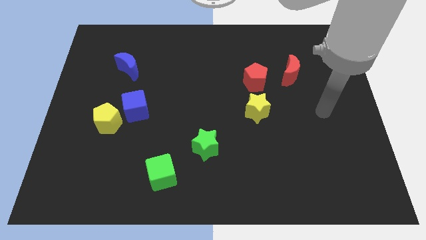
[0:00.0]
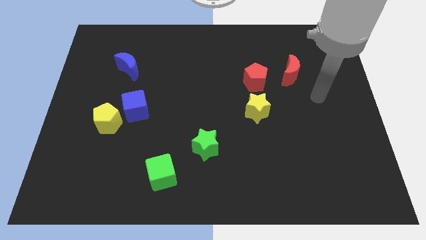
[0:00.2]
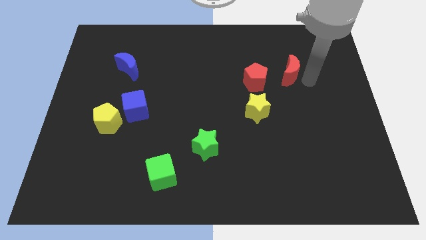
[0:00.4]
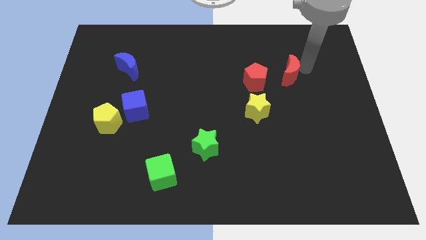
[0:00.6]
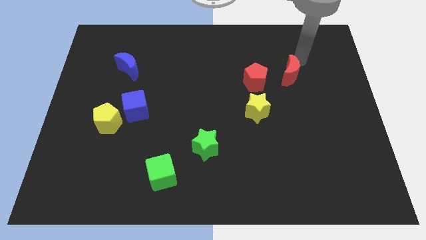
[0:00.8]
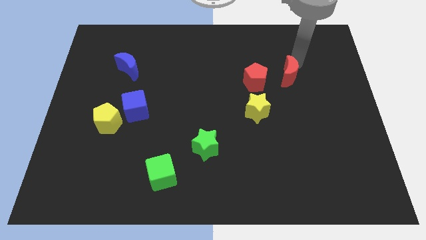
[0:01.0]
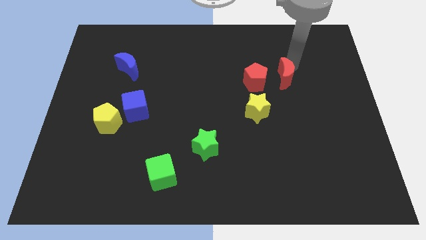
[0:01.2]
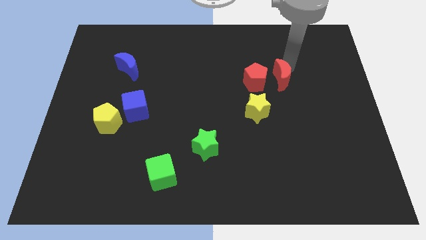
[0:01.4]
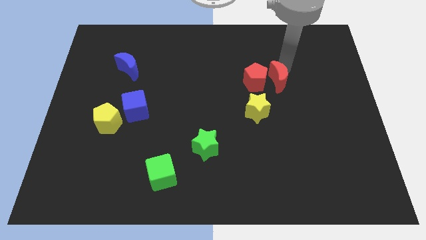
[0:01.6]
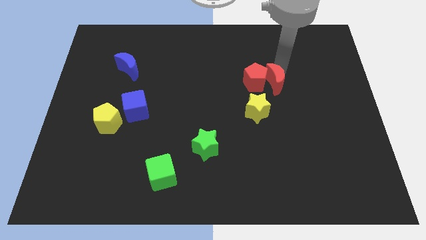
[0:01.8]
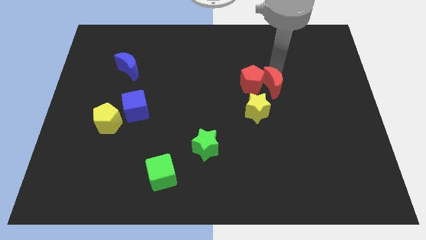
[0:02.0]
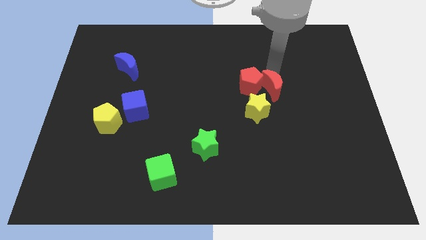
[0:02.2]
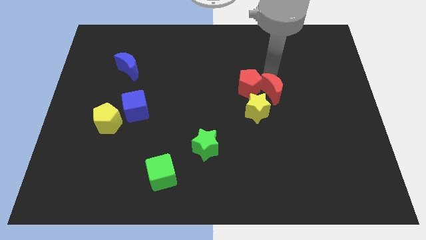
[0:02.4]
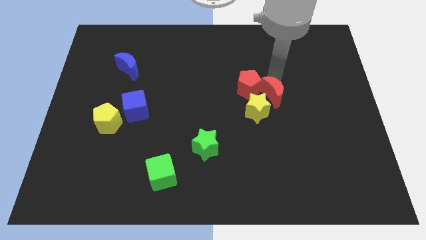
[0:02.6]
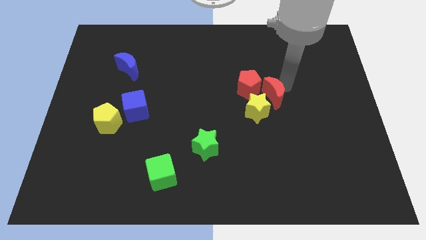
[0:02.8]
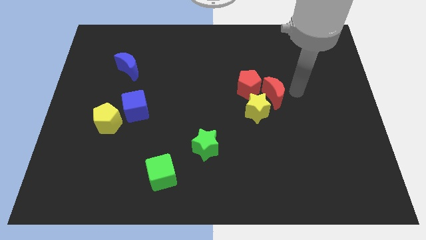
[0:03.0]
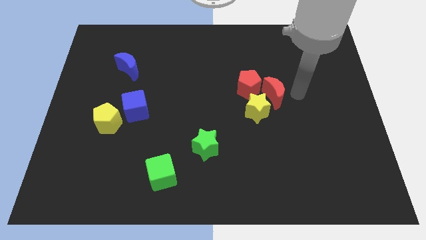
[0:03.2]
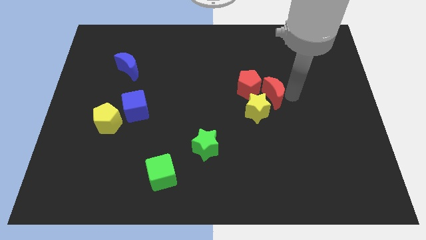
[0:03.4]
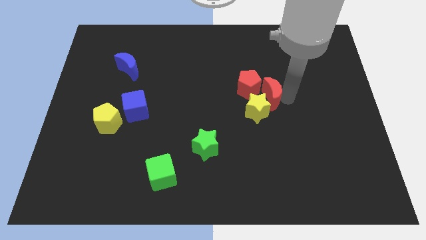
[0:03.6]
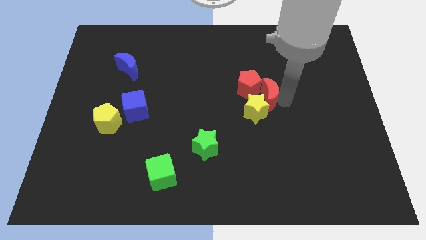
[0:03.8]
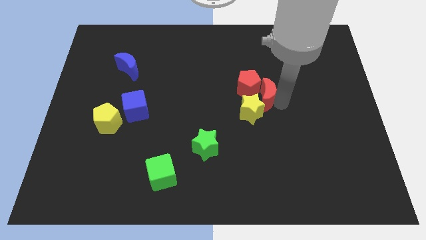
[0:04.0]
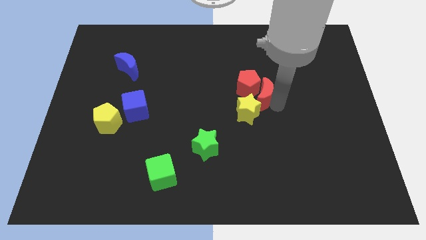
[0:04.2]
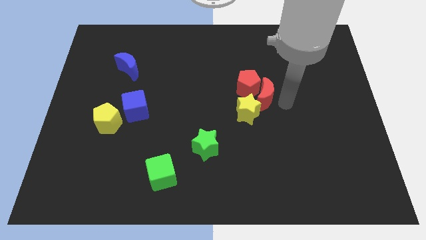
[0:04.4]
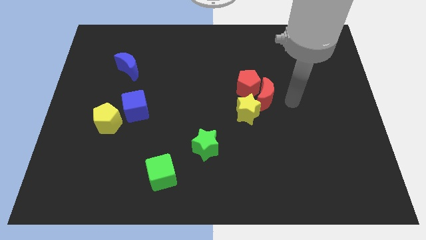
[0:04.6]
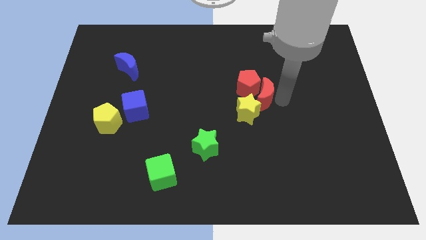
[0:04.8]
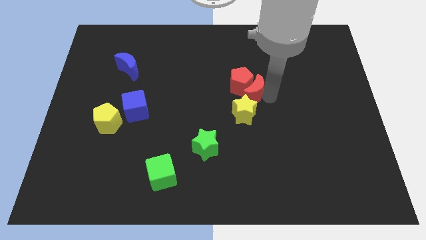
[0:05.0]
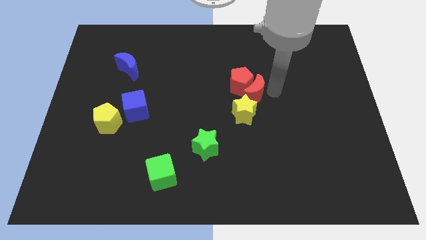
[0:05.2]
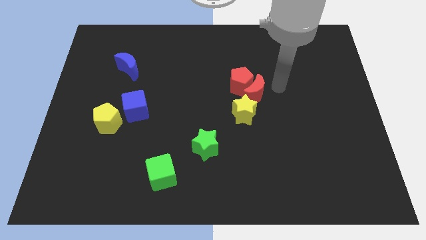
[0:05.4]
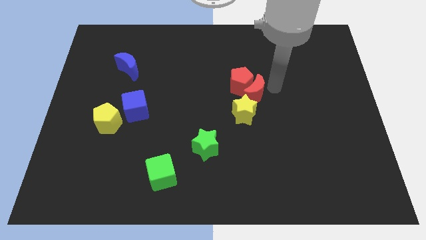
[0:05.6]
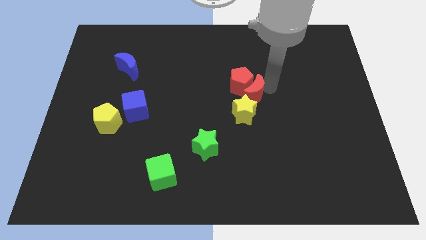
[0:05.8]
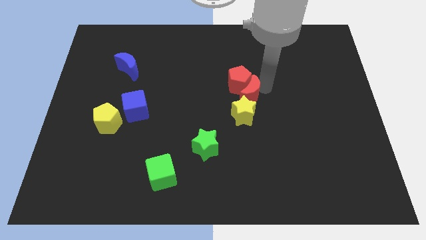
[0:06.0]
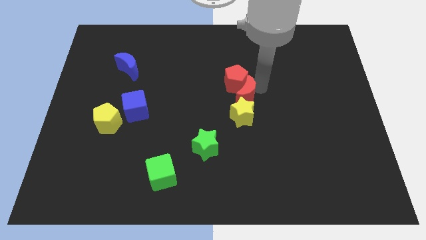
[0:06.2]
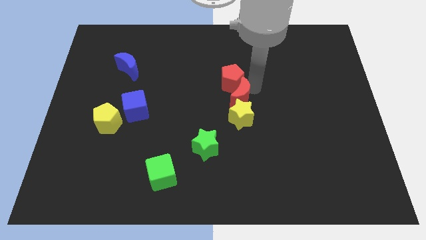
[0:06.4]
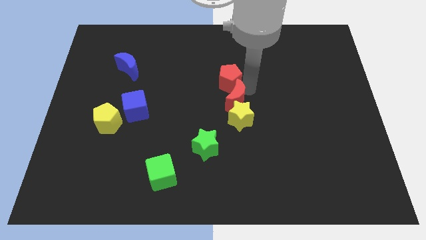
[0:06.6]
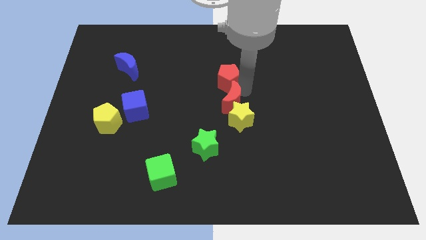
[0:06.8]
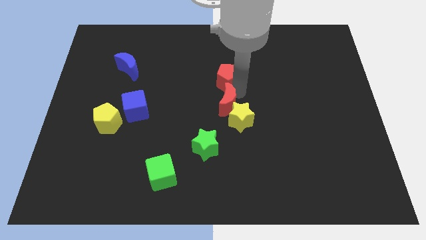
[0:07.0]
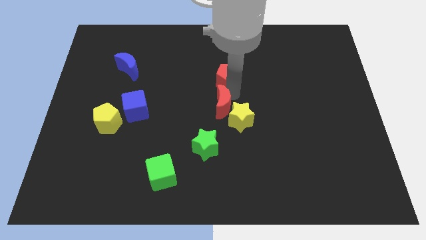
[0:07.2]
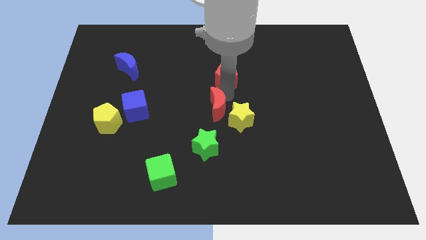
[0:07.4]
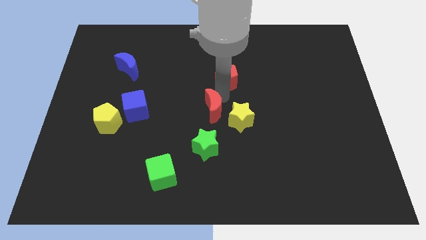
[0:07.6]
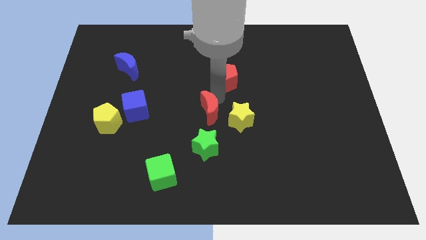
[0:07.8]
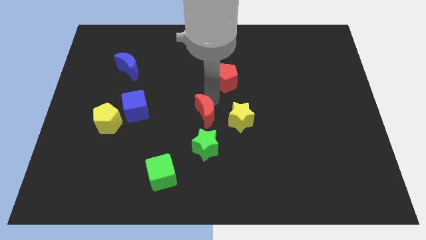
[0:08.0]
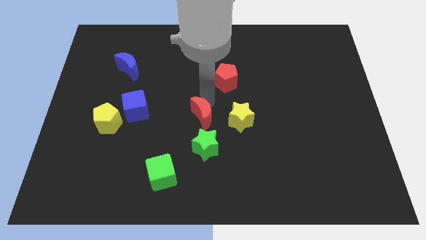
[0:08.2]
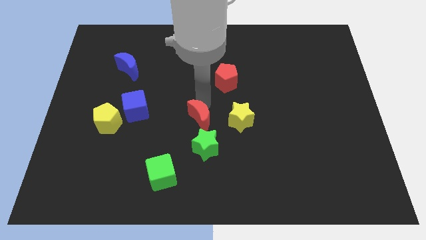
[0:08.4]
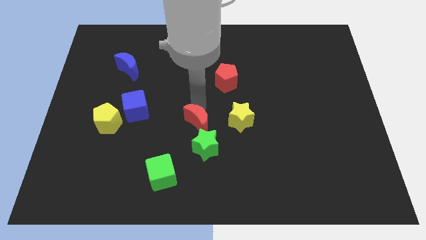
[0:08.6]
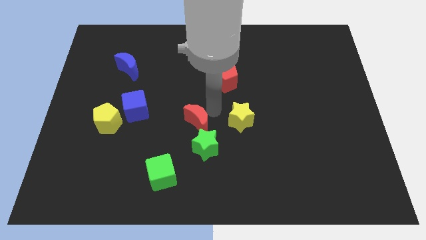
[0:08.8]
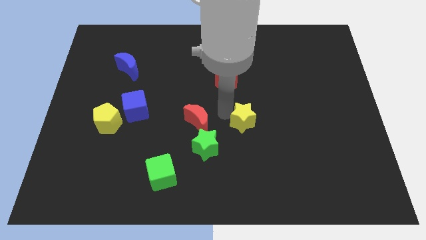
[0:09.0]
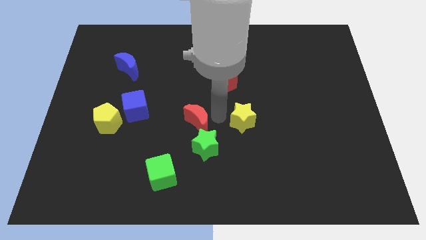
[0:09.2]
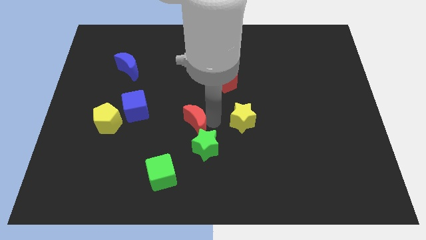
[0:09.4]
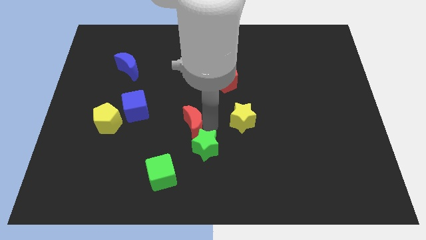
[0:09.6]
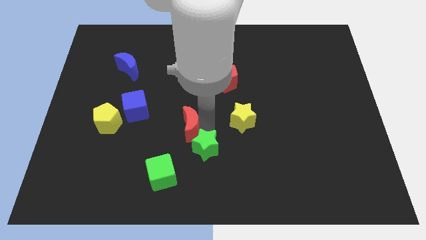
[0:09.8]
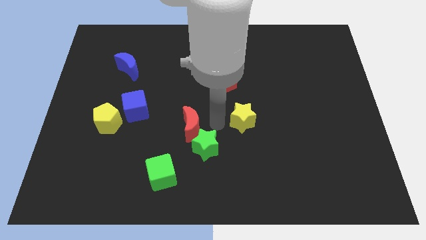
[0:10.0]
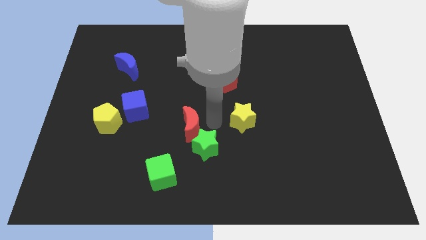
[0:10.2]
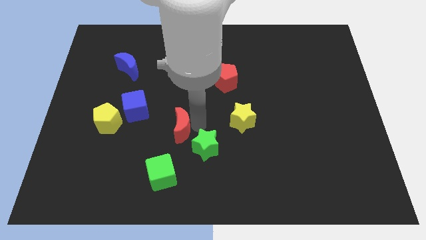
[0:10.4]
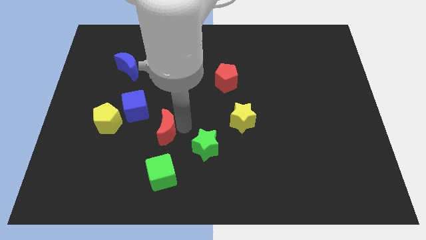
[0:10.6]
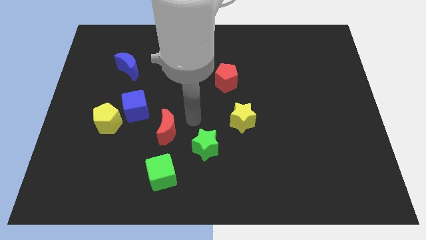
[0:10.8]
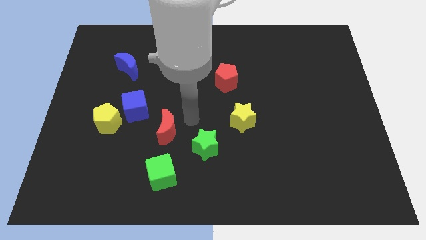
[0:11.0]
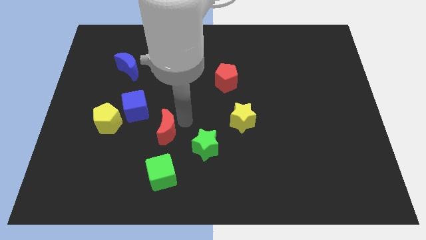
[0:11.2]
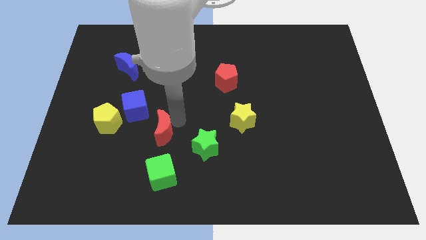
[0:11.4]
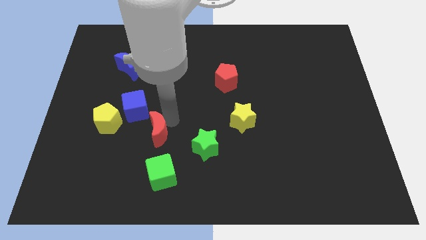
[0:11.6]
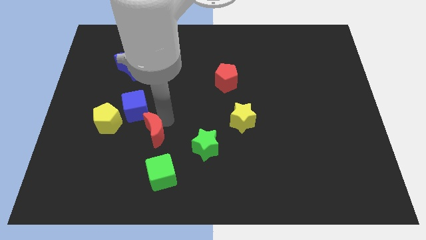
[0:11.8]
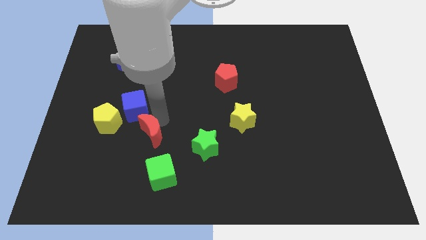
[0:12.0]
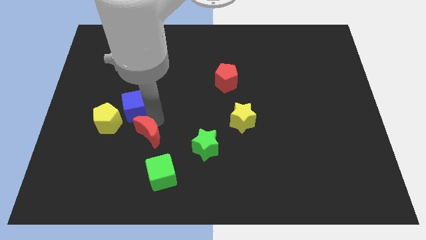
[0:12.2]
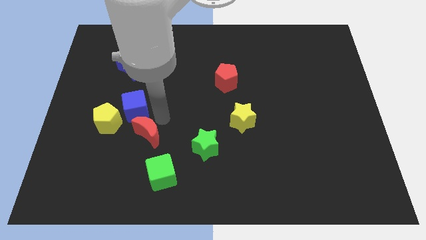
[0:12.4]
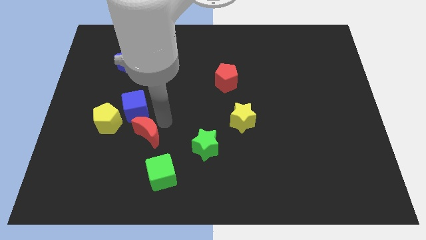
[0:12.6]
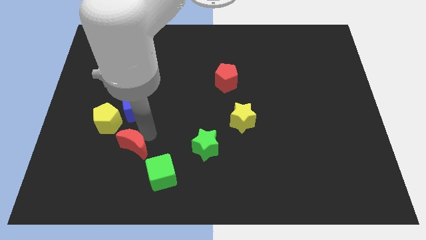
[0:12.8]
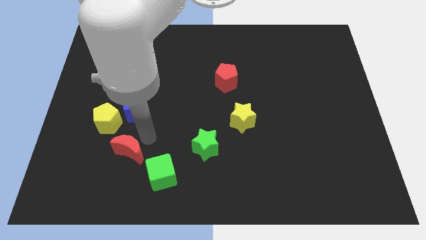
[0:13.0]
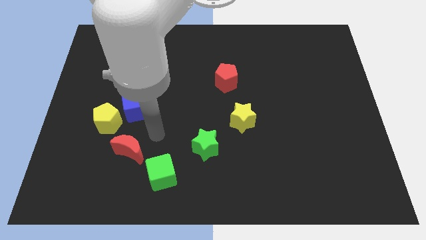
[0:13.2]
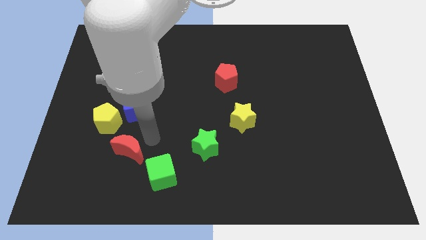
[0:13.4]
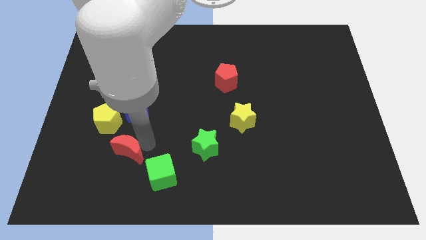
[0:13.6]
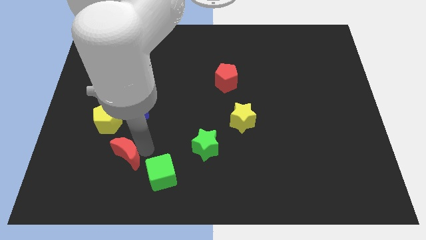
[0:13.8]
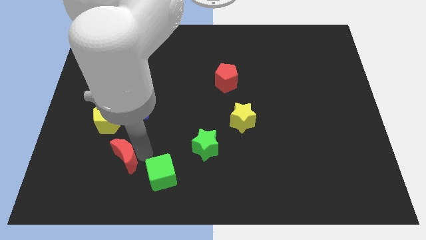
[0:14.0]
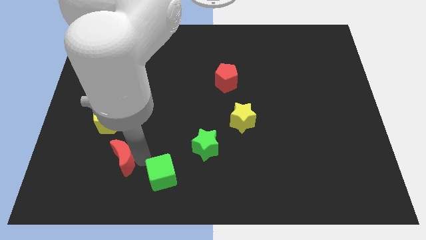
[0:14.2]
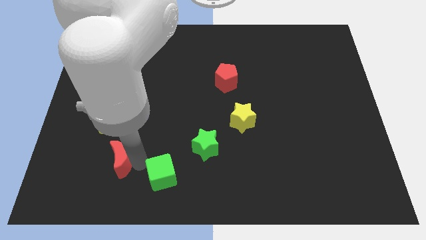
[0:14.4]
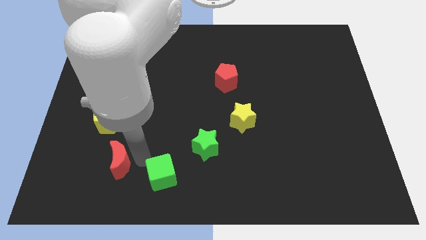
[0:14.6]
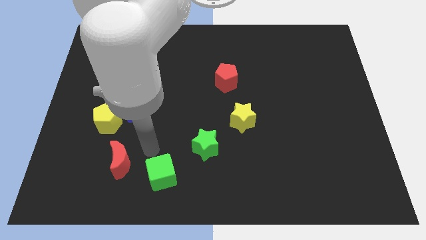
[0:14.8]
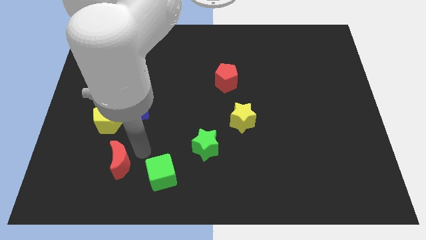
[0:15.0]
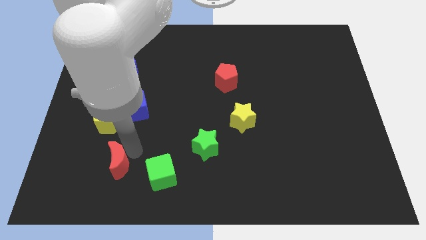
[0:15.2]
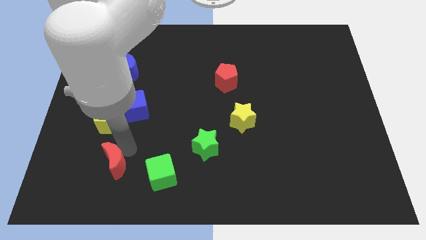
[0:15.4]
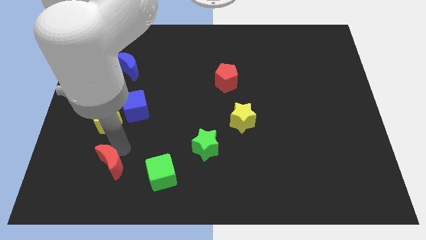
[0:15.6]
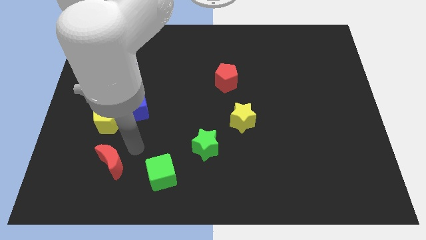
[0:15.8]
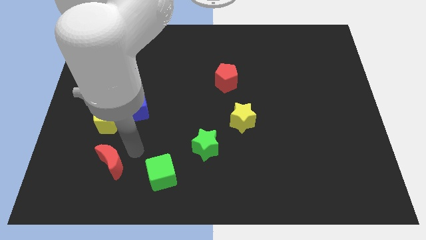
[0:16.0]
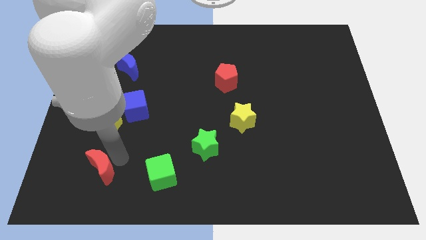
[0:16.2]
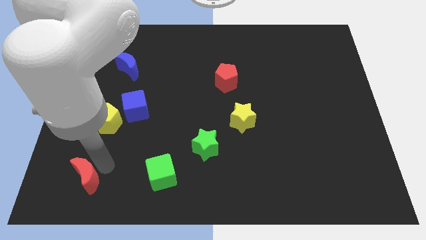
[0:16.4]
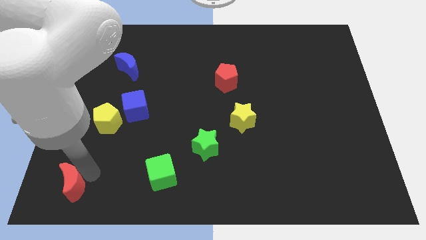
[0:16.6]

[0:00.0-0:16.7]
push the red moon to the bottom left corner
